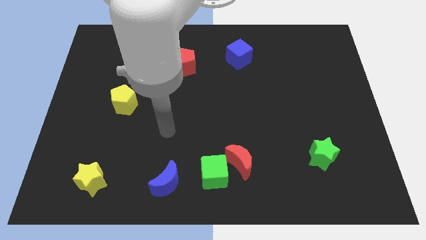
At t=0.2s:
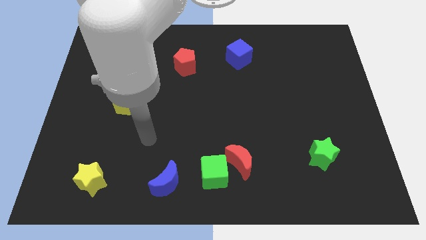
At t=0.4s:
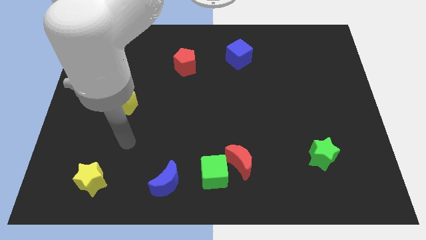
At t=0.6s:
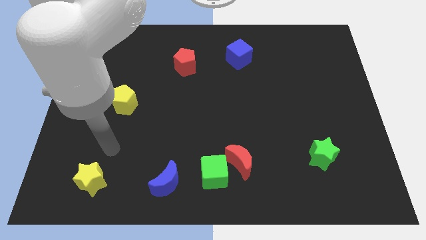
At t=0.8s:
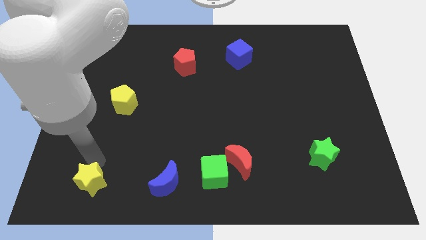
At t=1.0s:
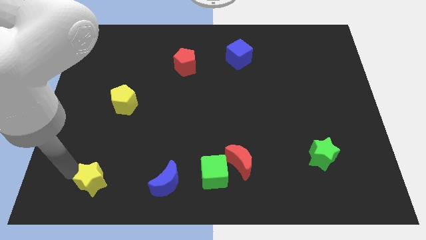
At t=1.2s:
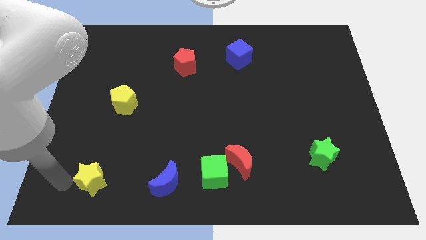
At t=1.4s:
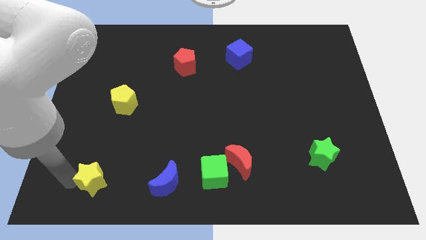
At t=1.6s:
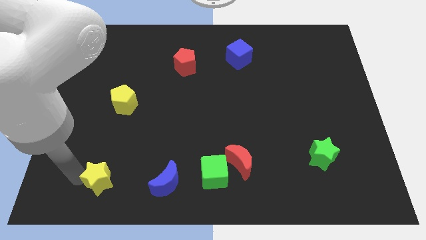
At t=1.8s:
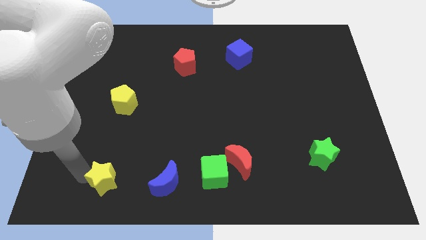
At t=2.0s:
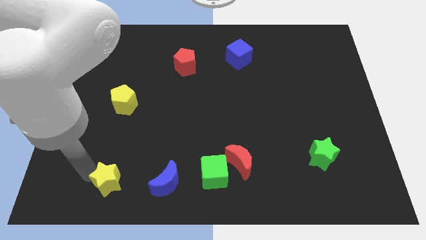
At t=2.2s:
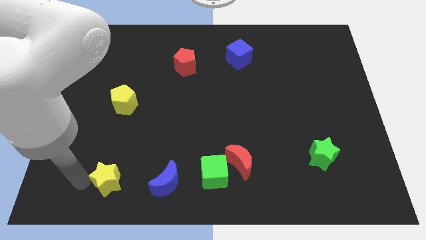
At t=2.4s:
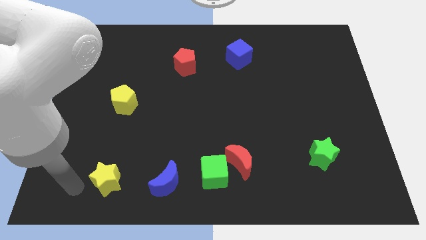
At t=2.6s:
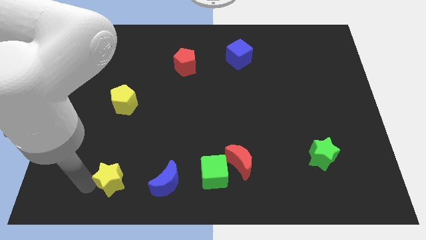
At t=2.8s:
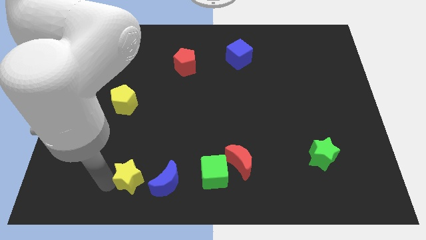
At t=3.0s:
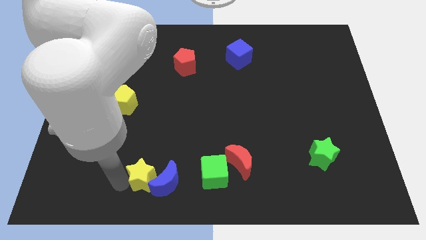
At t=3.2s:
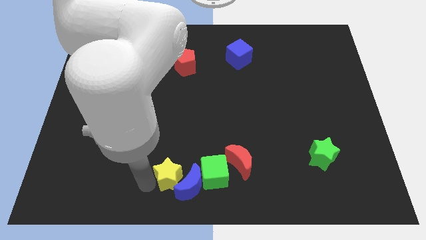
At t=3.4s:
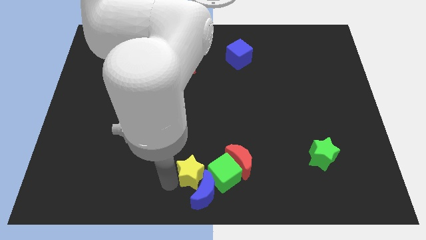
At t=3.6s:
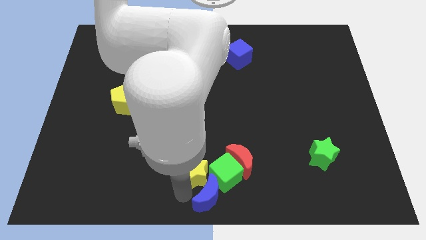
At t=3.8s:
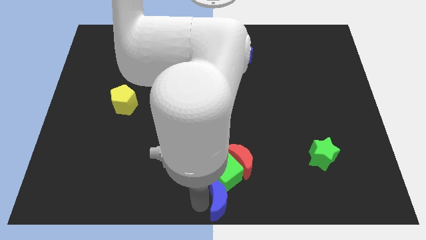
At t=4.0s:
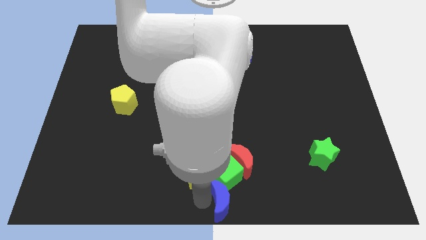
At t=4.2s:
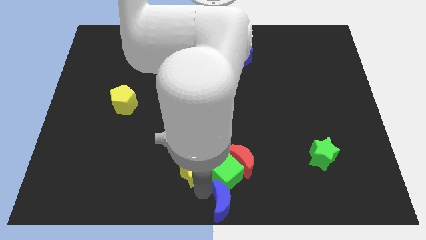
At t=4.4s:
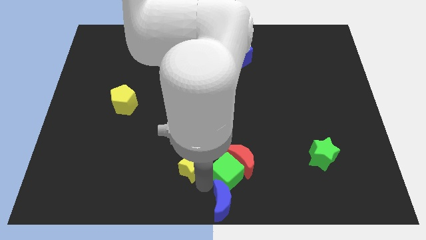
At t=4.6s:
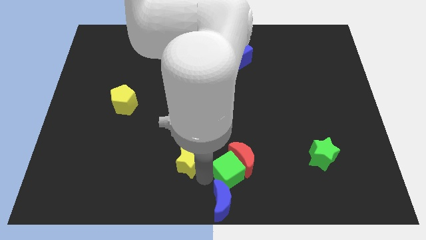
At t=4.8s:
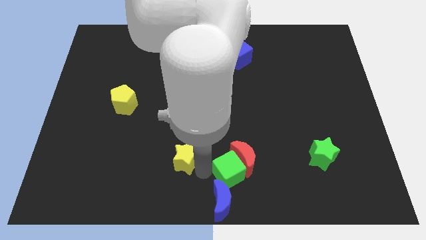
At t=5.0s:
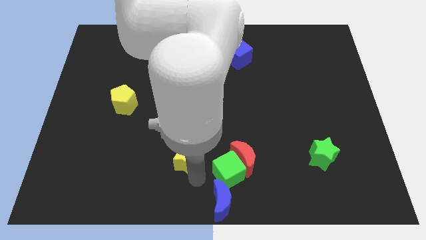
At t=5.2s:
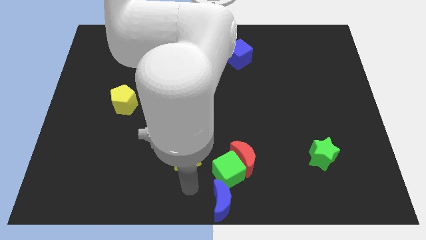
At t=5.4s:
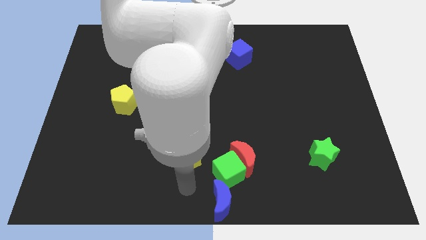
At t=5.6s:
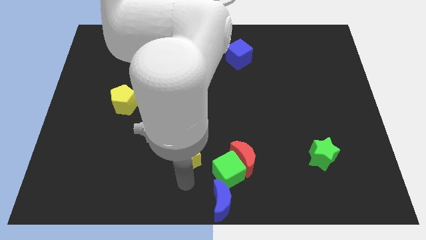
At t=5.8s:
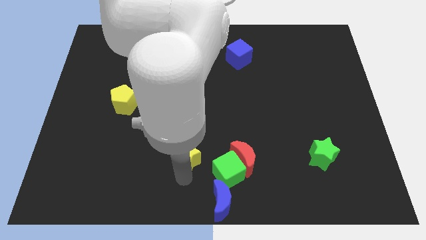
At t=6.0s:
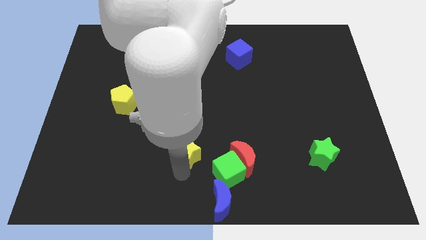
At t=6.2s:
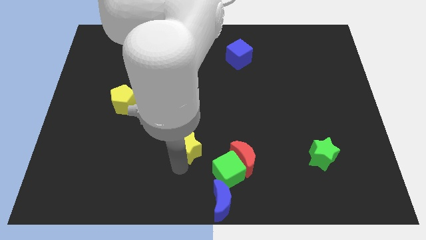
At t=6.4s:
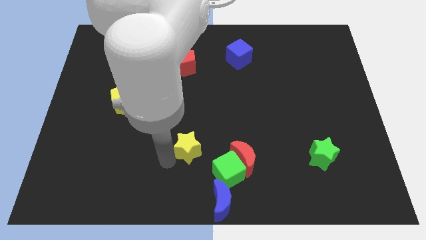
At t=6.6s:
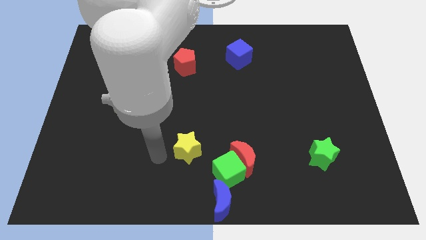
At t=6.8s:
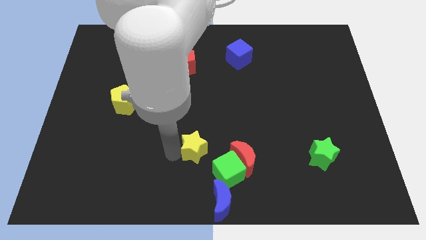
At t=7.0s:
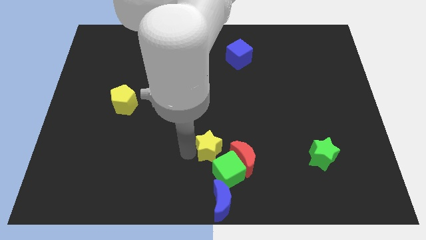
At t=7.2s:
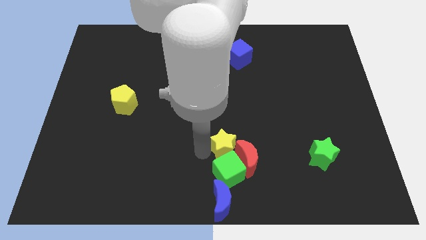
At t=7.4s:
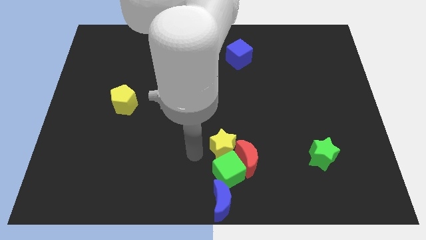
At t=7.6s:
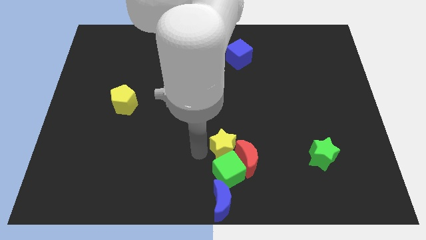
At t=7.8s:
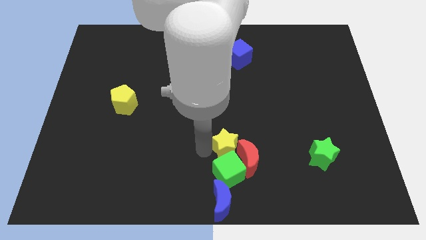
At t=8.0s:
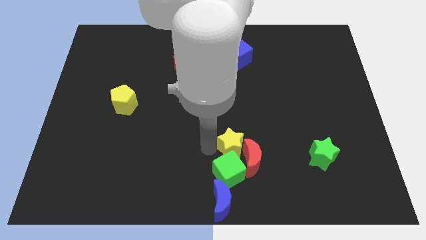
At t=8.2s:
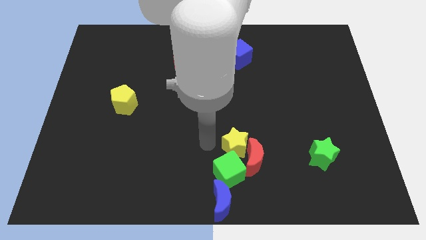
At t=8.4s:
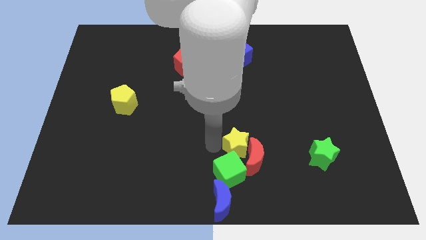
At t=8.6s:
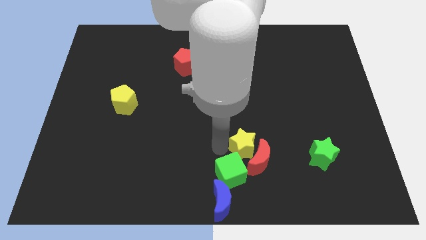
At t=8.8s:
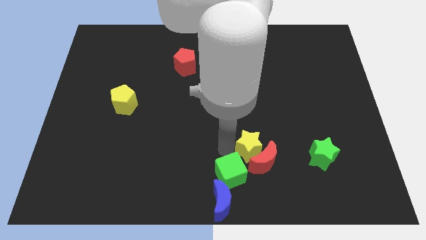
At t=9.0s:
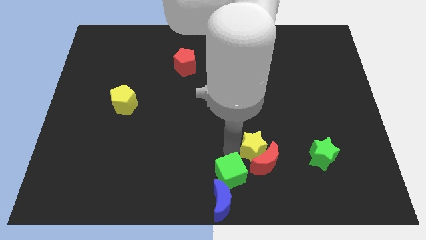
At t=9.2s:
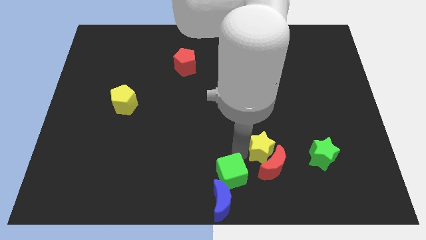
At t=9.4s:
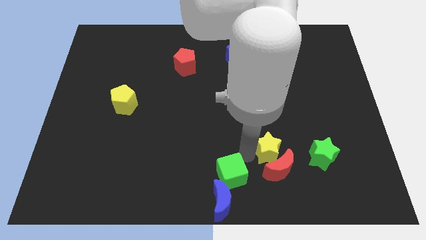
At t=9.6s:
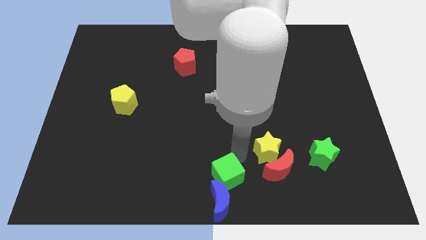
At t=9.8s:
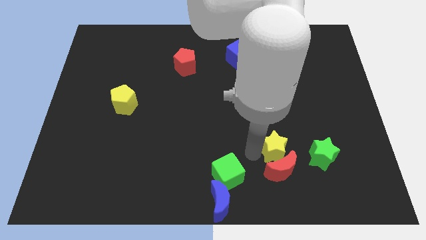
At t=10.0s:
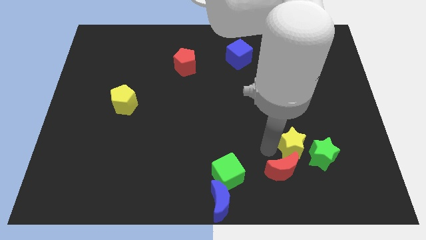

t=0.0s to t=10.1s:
push the yellow star next to the green star

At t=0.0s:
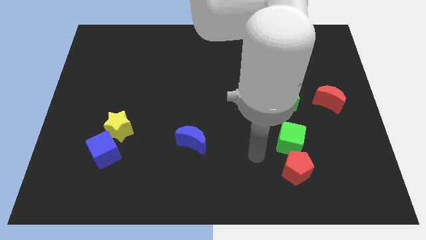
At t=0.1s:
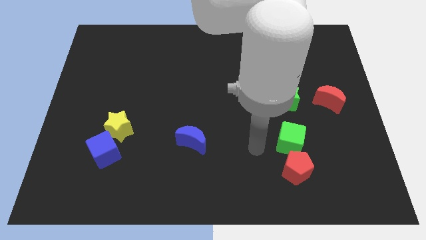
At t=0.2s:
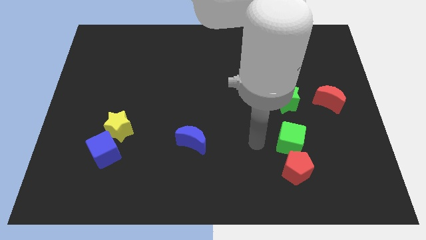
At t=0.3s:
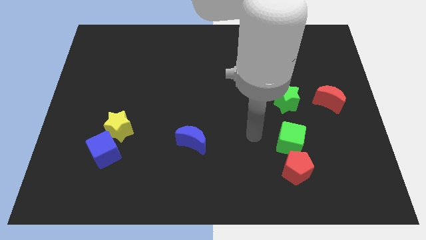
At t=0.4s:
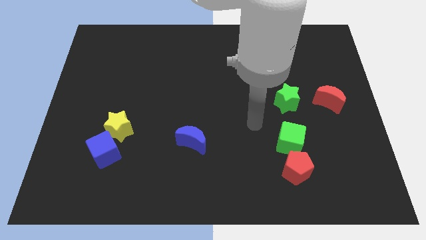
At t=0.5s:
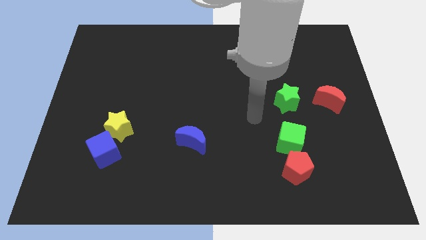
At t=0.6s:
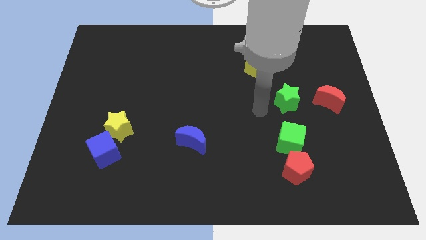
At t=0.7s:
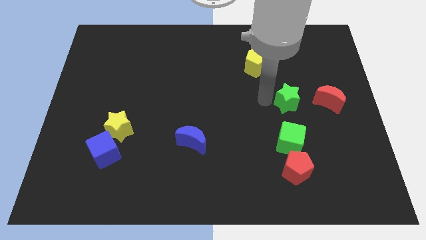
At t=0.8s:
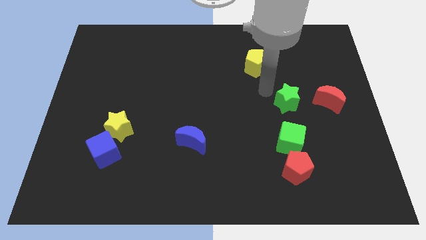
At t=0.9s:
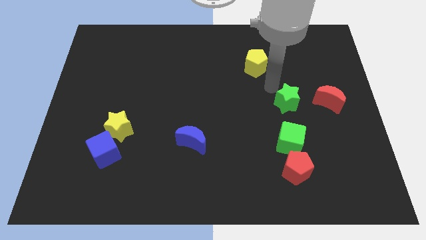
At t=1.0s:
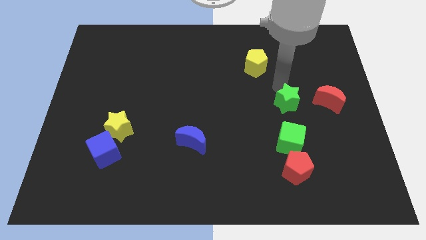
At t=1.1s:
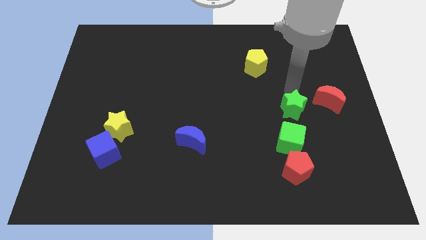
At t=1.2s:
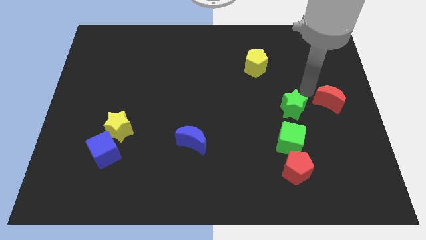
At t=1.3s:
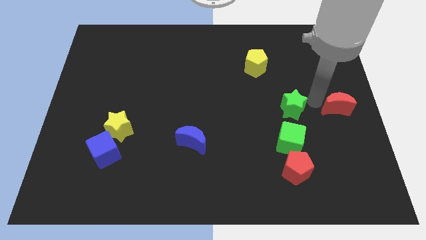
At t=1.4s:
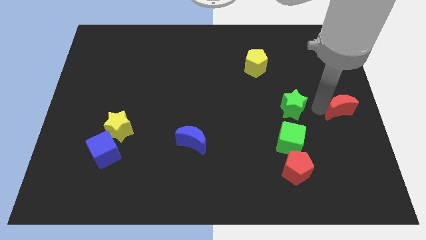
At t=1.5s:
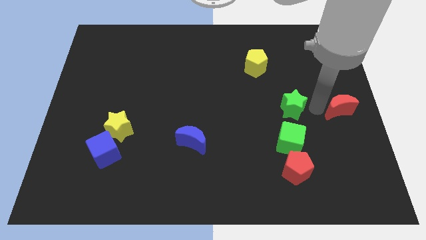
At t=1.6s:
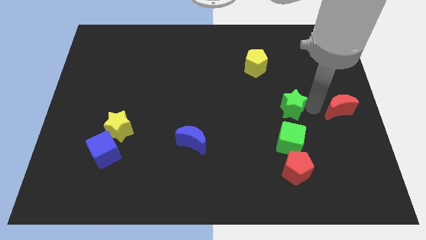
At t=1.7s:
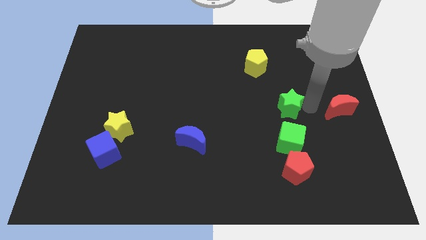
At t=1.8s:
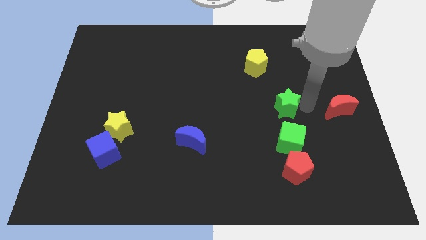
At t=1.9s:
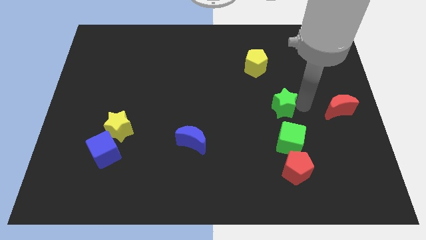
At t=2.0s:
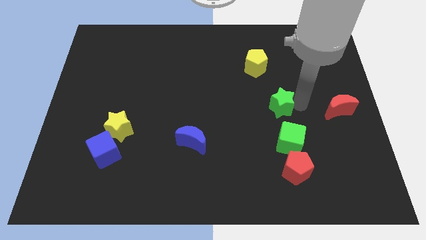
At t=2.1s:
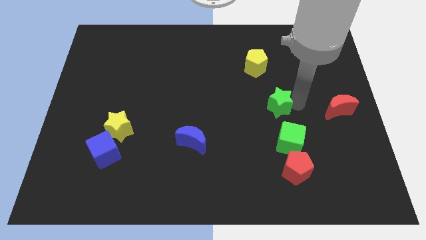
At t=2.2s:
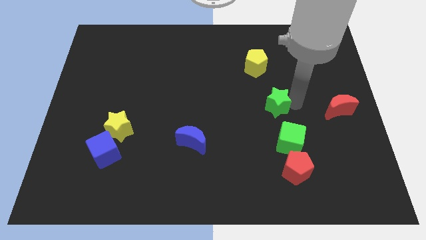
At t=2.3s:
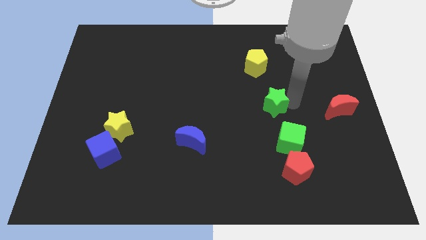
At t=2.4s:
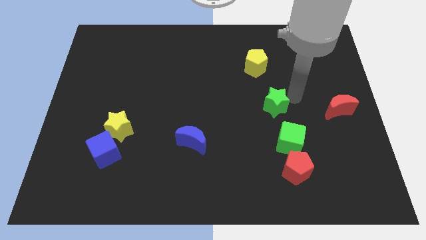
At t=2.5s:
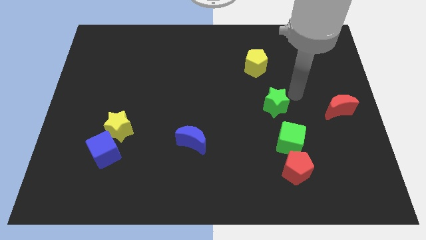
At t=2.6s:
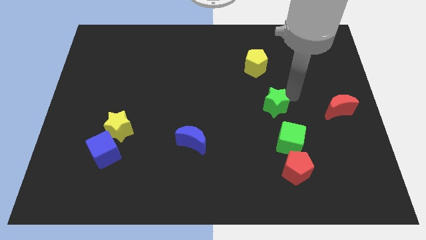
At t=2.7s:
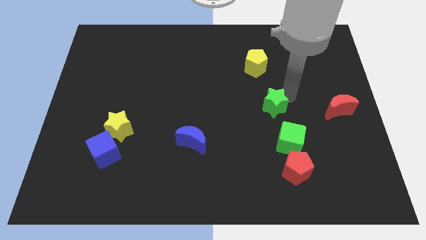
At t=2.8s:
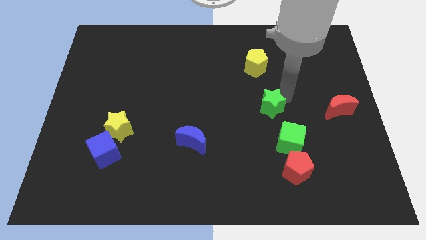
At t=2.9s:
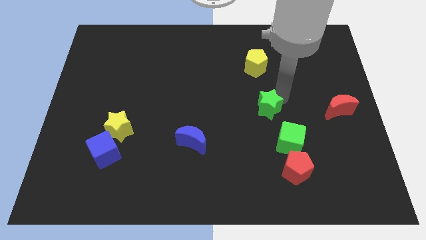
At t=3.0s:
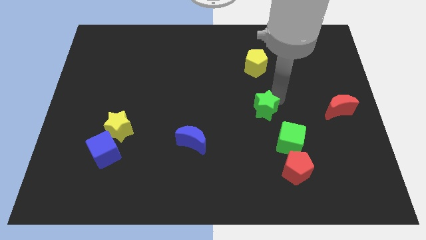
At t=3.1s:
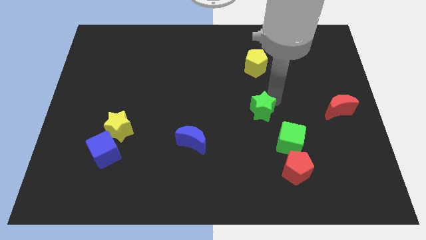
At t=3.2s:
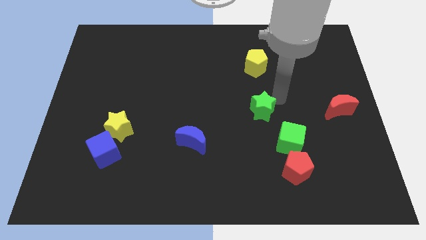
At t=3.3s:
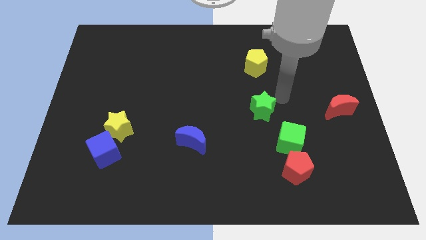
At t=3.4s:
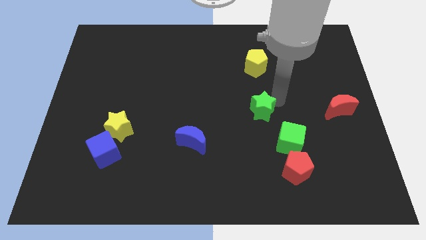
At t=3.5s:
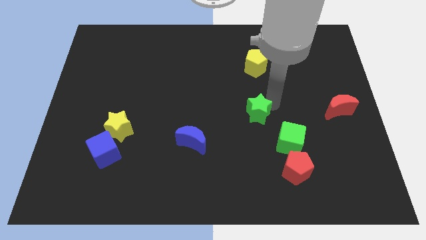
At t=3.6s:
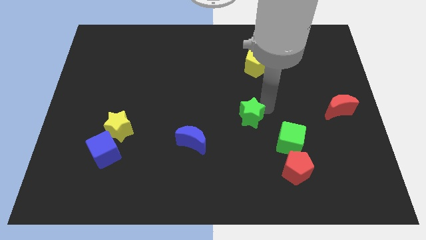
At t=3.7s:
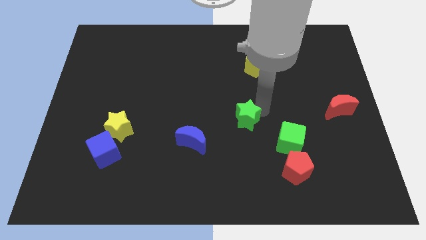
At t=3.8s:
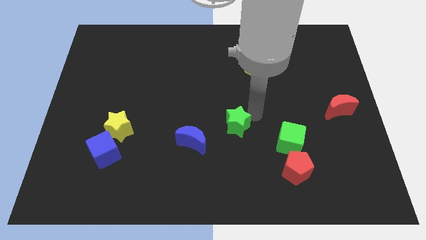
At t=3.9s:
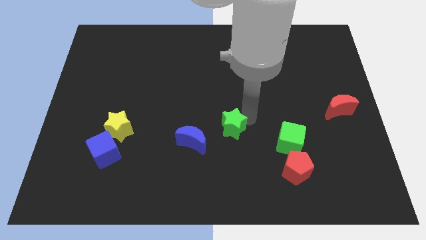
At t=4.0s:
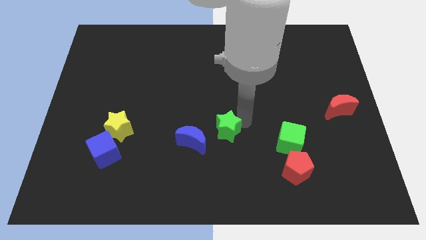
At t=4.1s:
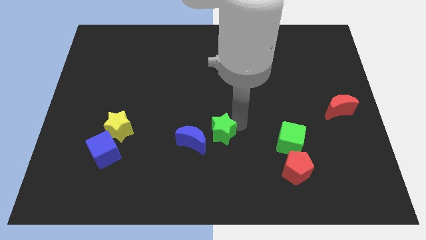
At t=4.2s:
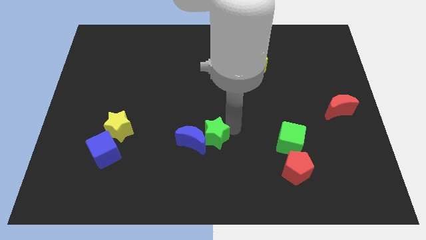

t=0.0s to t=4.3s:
push the green star next to the blue moon
